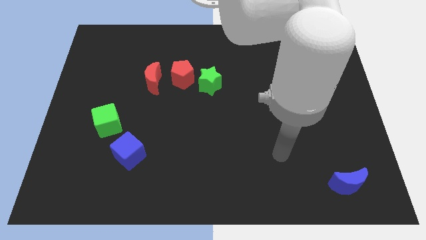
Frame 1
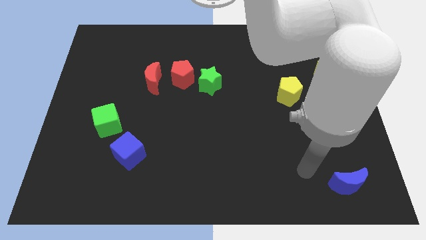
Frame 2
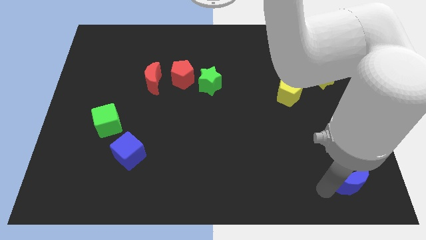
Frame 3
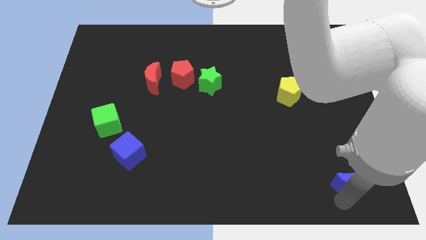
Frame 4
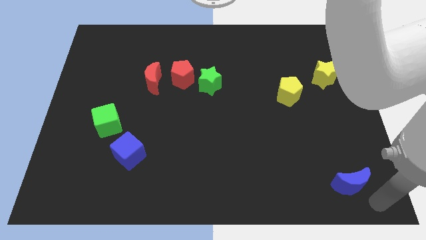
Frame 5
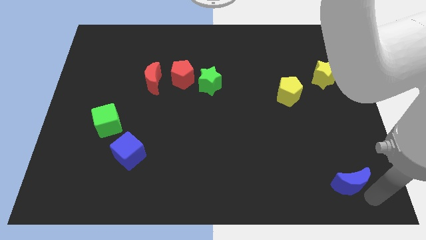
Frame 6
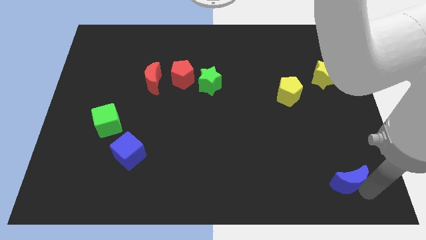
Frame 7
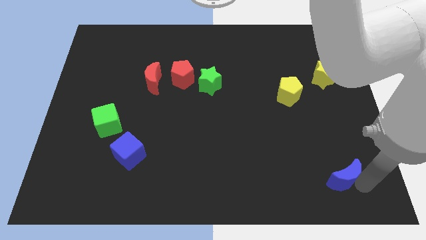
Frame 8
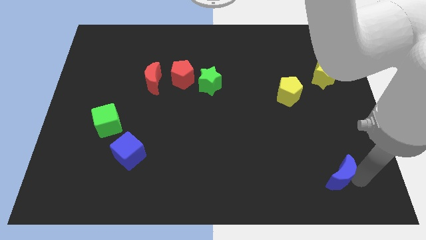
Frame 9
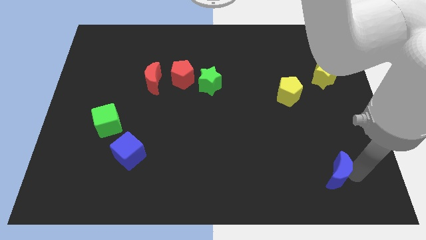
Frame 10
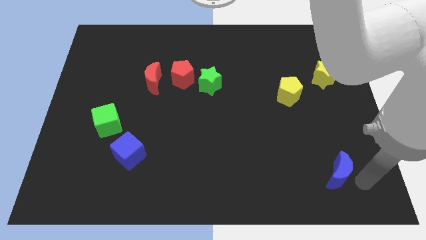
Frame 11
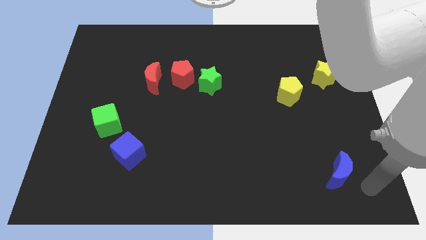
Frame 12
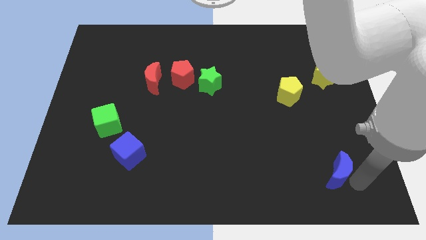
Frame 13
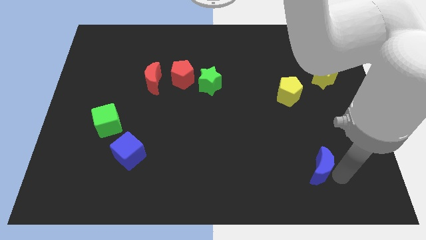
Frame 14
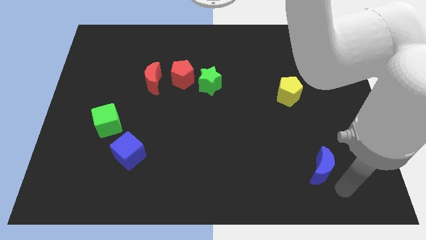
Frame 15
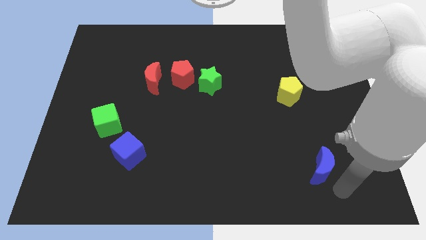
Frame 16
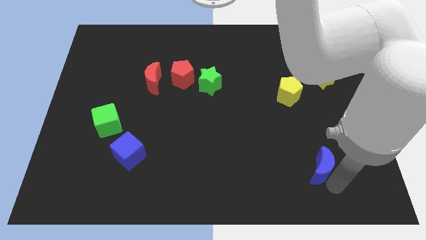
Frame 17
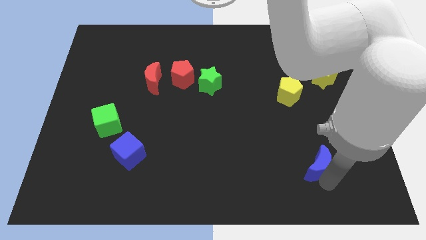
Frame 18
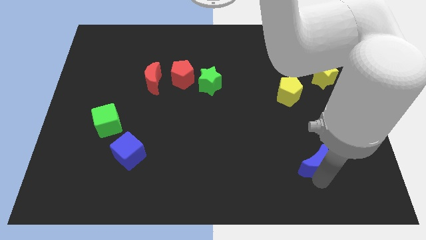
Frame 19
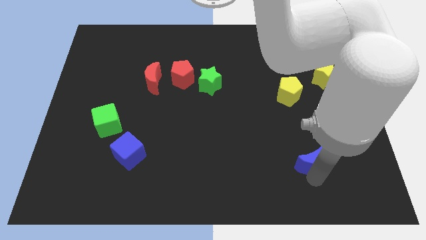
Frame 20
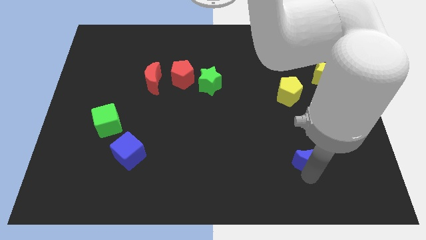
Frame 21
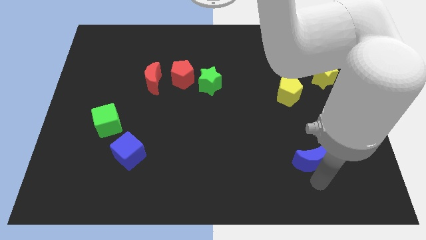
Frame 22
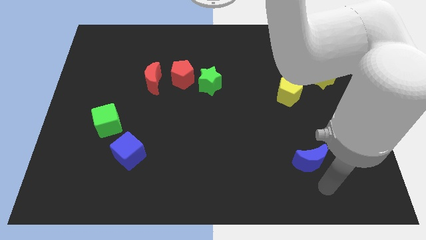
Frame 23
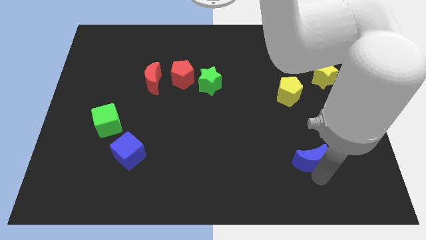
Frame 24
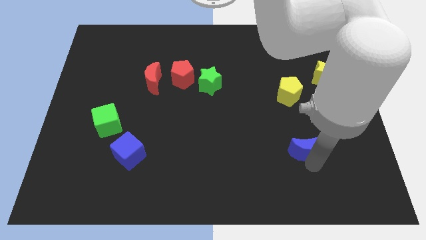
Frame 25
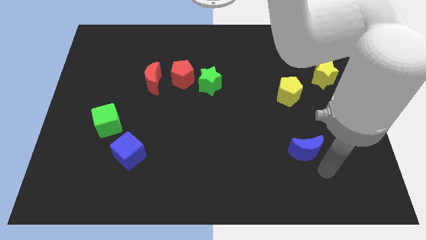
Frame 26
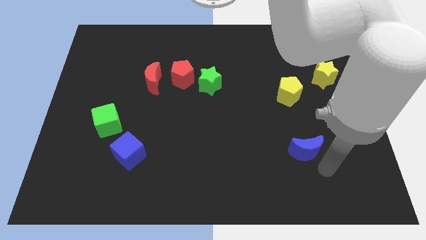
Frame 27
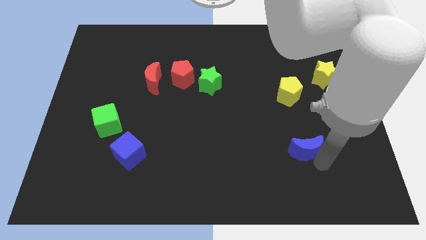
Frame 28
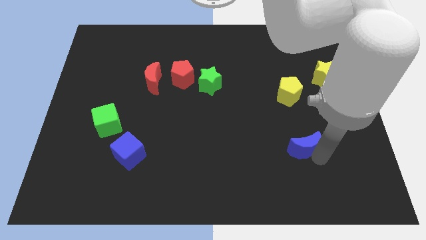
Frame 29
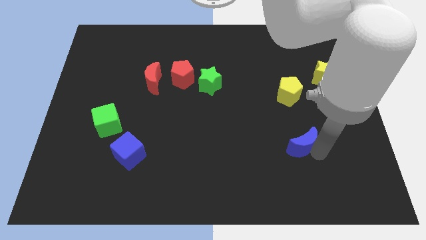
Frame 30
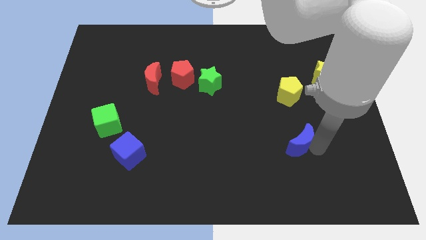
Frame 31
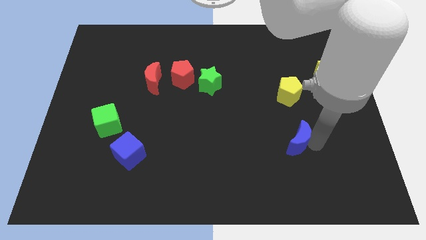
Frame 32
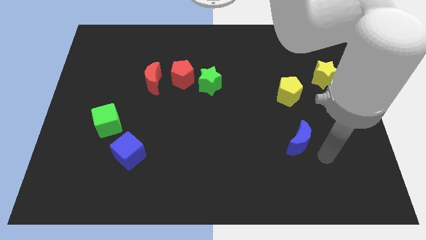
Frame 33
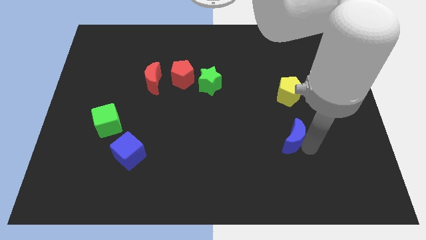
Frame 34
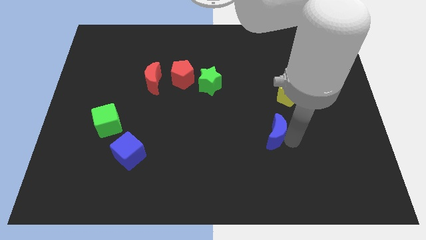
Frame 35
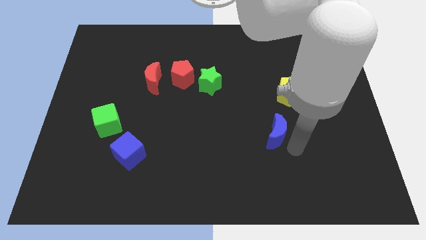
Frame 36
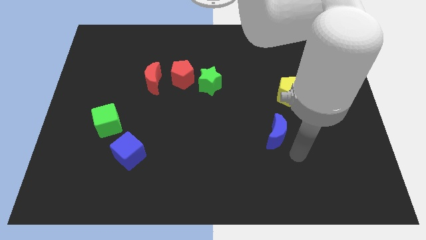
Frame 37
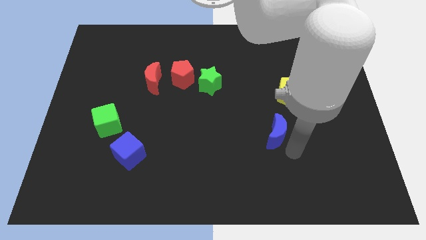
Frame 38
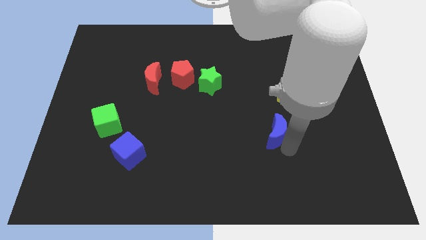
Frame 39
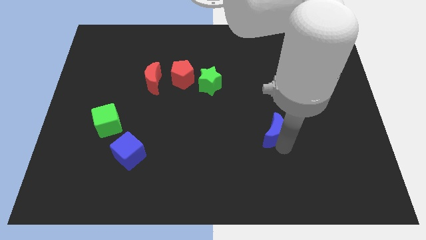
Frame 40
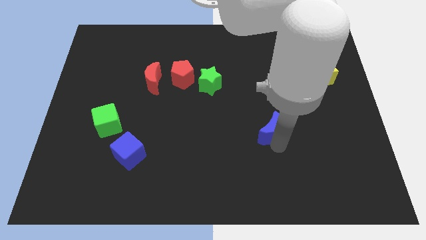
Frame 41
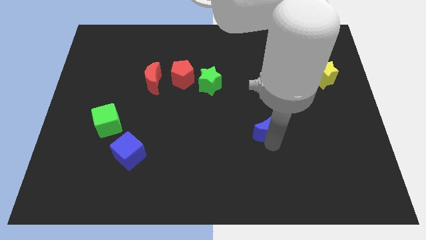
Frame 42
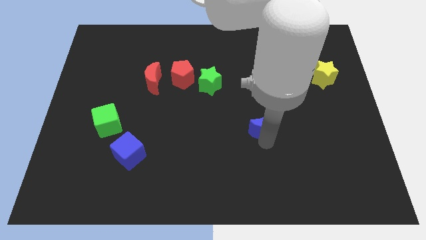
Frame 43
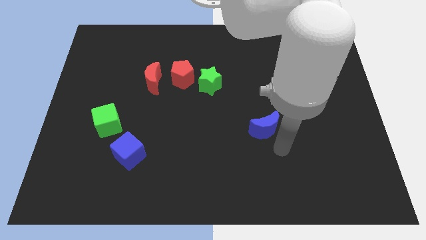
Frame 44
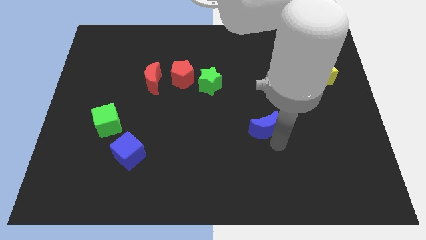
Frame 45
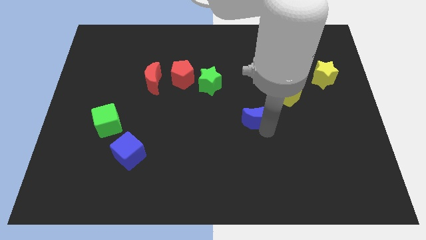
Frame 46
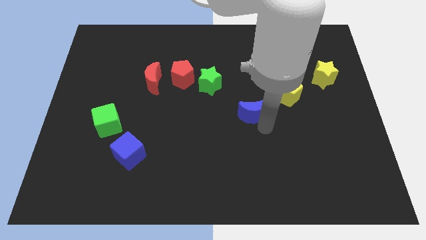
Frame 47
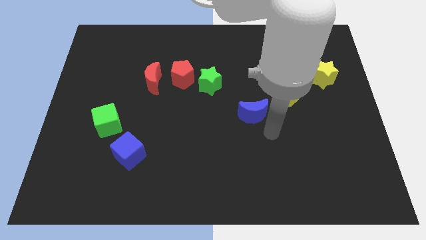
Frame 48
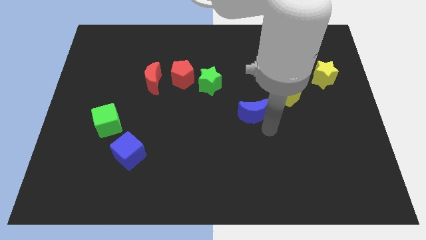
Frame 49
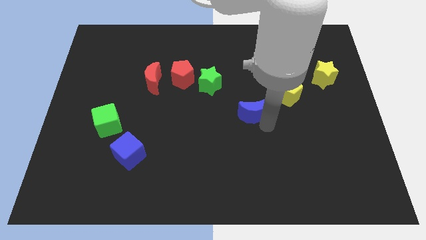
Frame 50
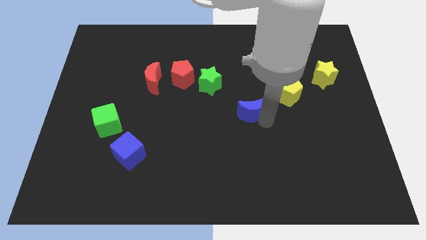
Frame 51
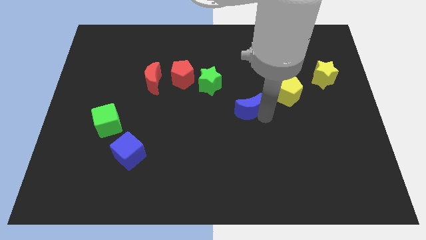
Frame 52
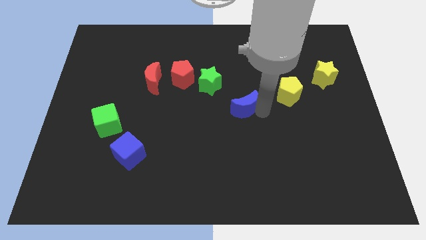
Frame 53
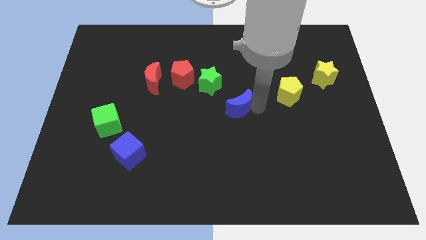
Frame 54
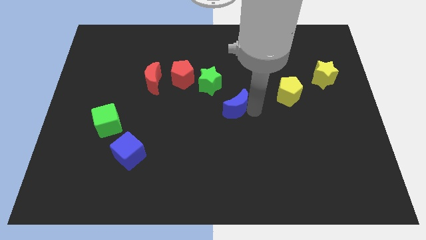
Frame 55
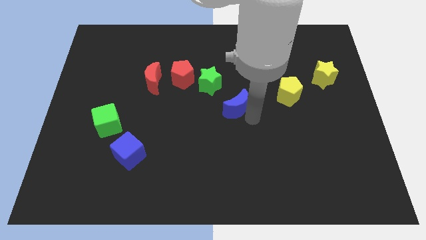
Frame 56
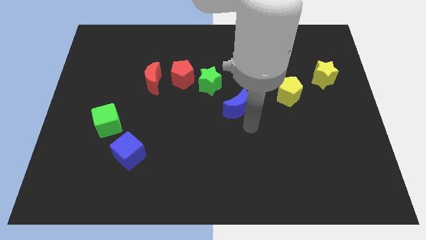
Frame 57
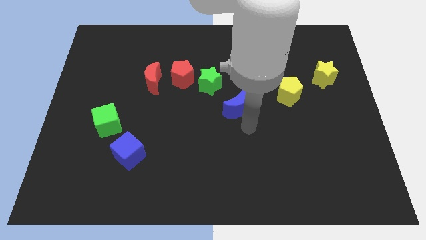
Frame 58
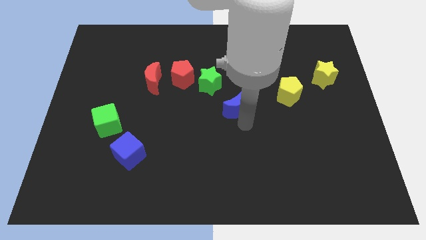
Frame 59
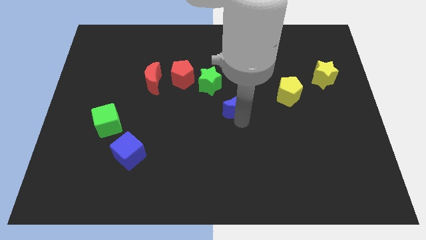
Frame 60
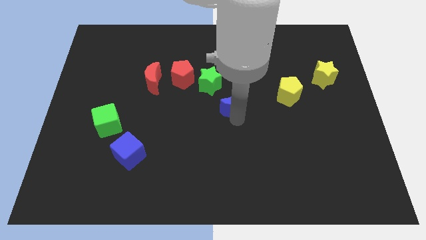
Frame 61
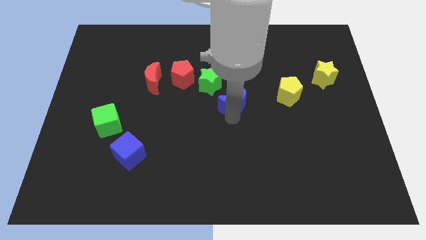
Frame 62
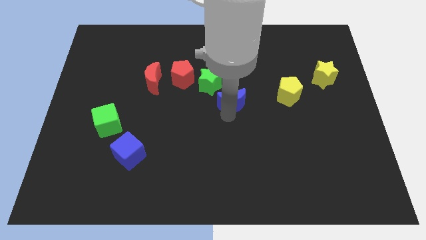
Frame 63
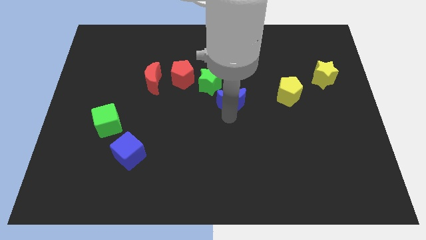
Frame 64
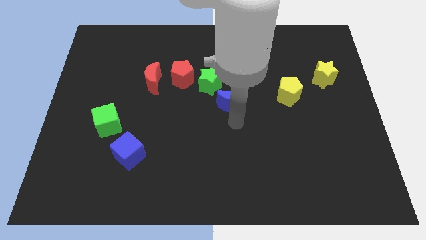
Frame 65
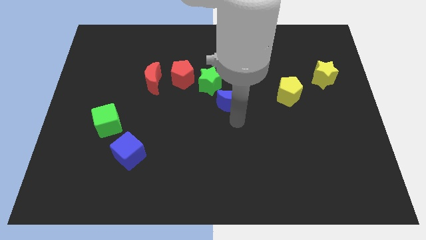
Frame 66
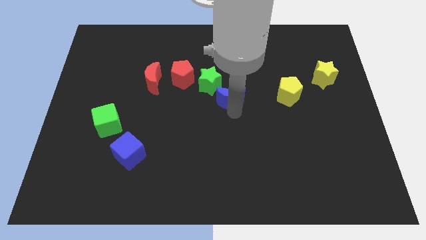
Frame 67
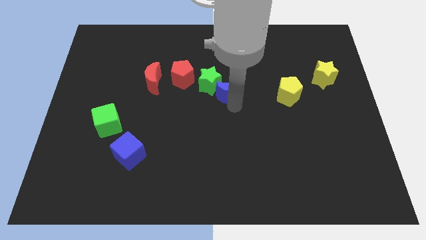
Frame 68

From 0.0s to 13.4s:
push the blue moon close to the green star

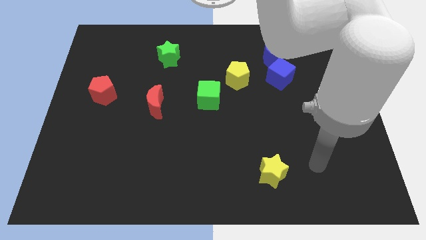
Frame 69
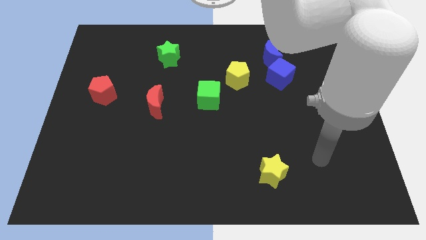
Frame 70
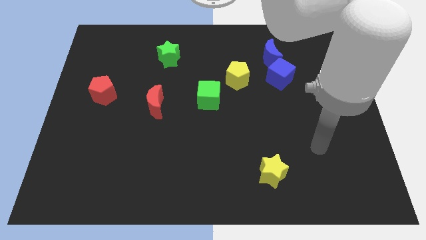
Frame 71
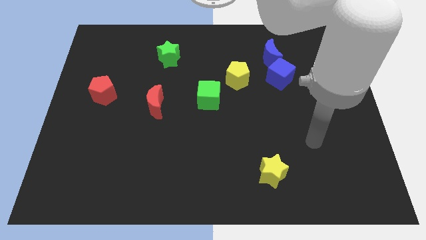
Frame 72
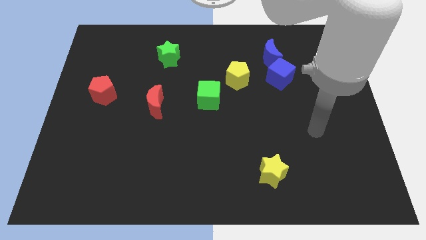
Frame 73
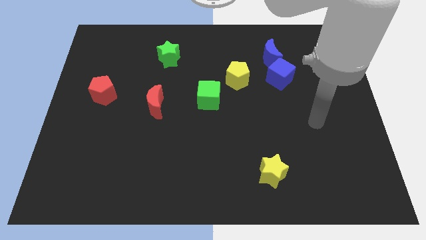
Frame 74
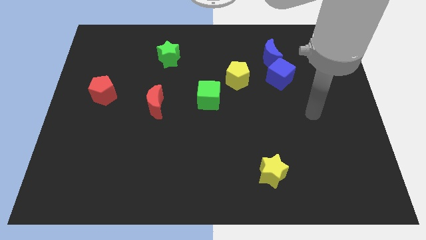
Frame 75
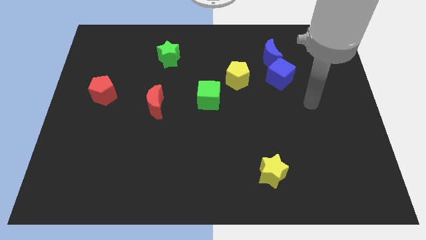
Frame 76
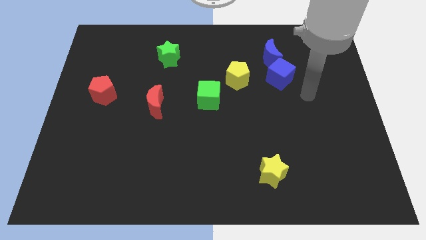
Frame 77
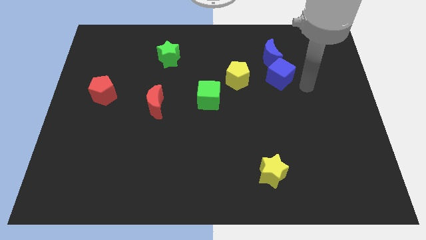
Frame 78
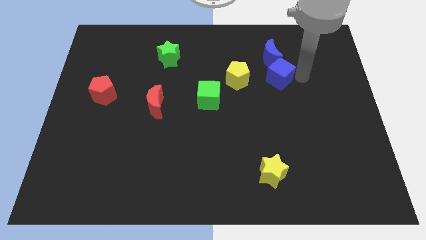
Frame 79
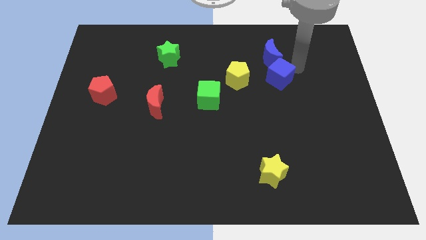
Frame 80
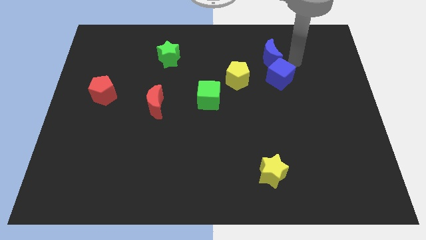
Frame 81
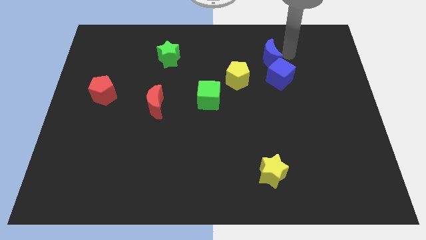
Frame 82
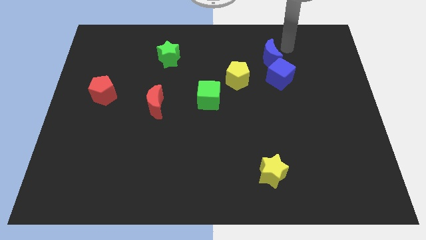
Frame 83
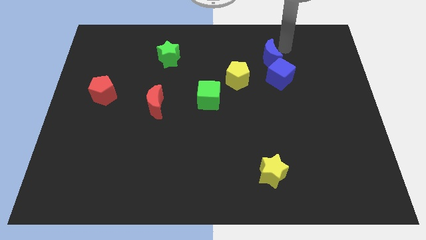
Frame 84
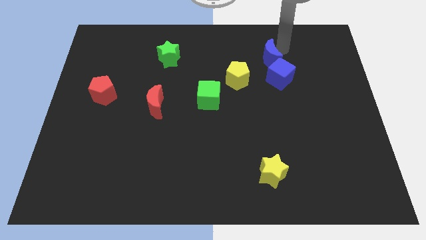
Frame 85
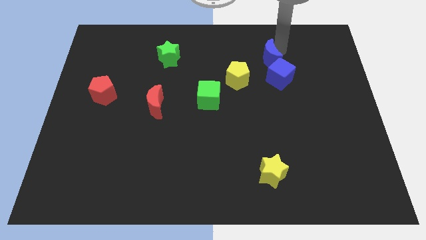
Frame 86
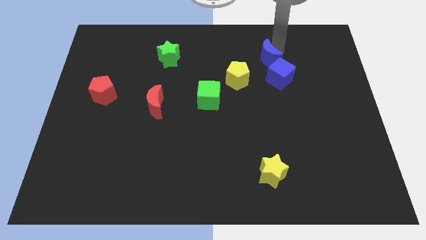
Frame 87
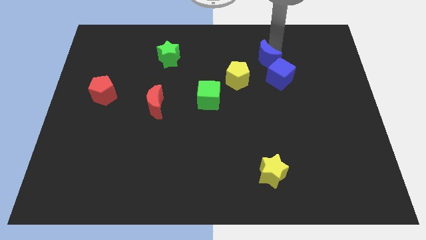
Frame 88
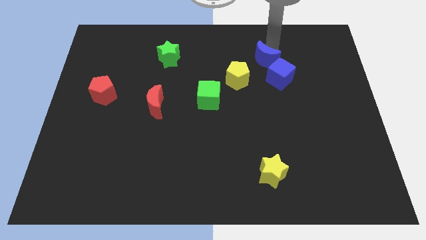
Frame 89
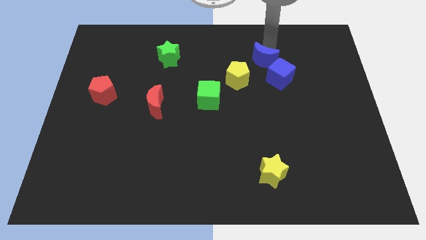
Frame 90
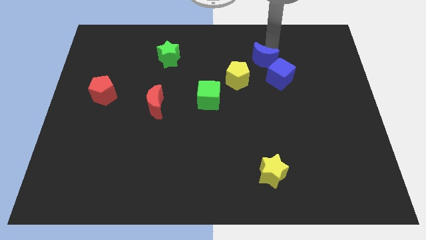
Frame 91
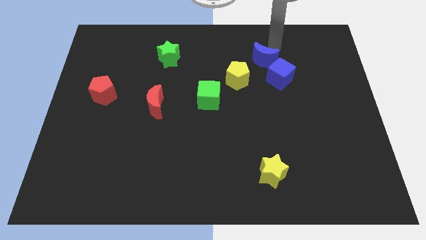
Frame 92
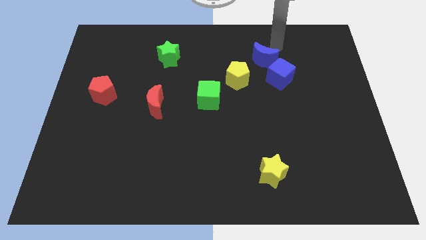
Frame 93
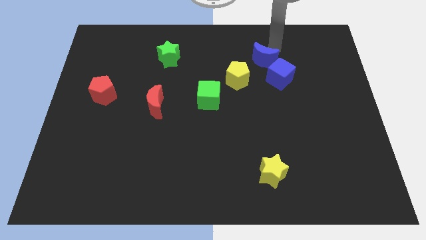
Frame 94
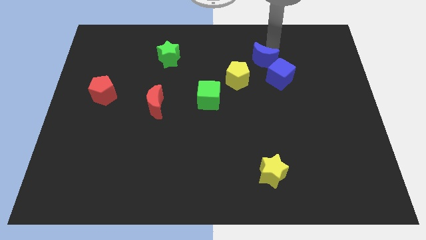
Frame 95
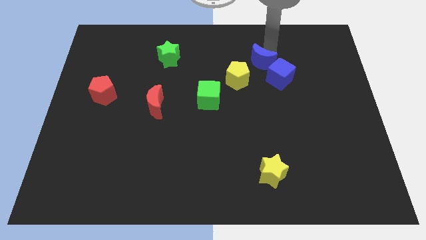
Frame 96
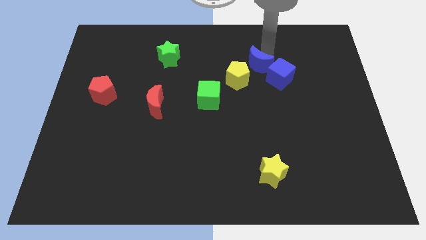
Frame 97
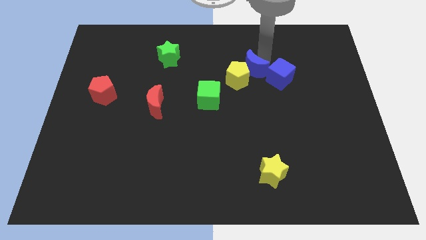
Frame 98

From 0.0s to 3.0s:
push the blue moon close to the yellow pentagon
